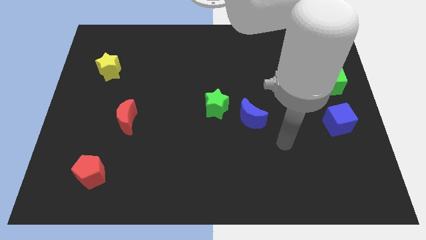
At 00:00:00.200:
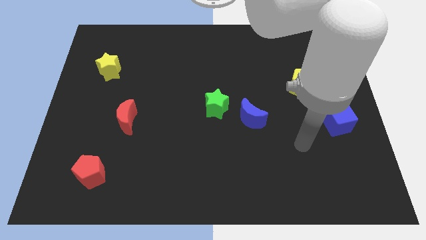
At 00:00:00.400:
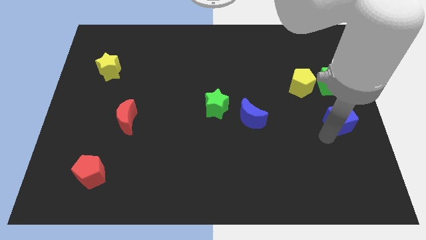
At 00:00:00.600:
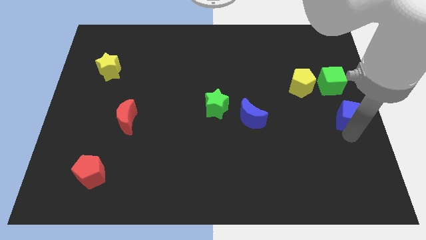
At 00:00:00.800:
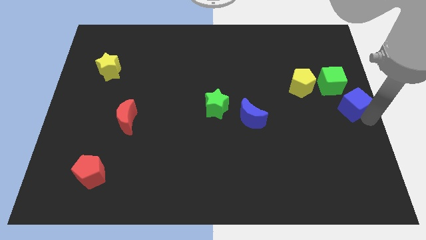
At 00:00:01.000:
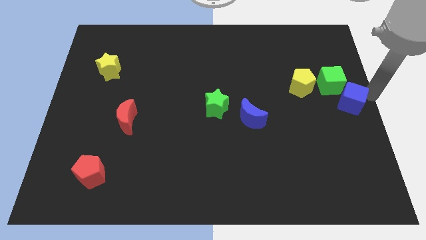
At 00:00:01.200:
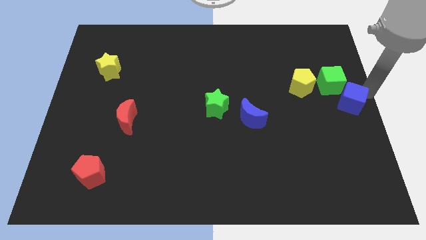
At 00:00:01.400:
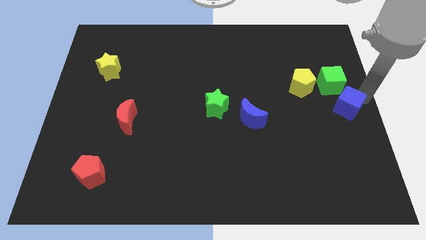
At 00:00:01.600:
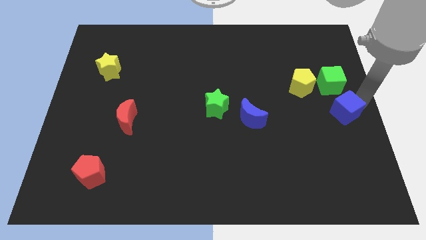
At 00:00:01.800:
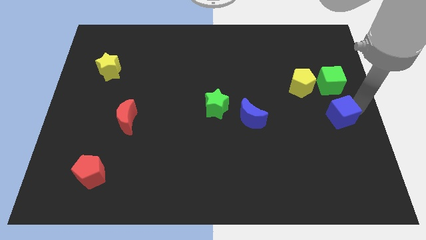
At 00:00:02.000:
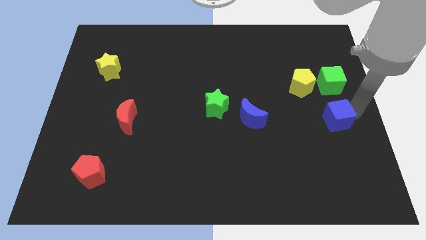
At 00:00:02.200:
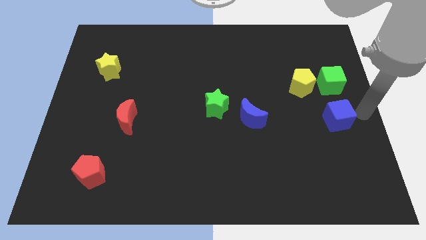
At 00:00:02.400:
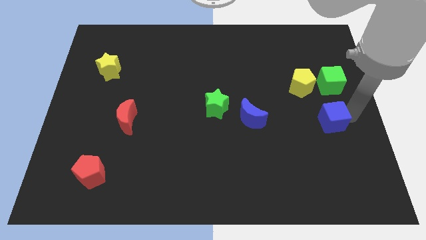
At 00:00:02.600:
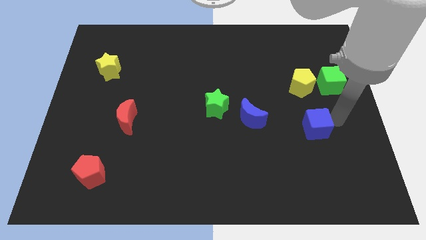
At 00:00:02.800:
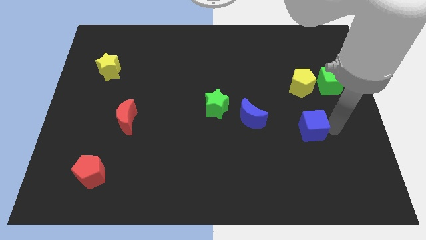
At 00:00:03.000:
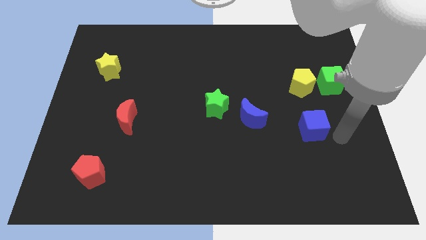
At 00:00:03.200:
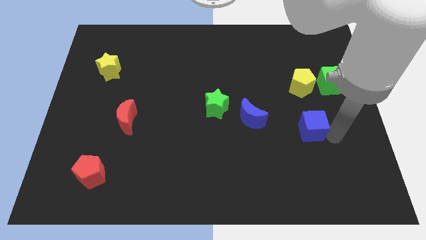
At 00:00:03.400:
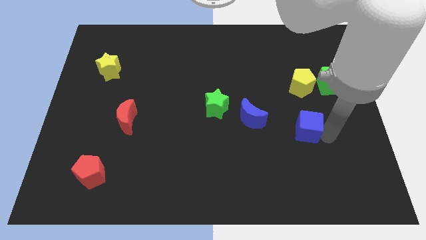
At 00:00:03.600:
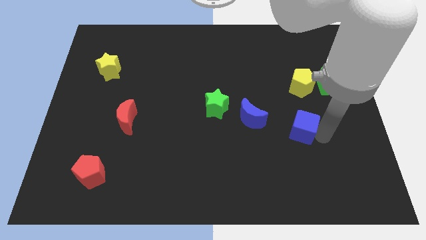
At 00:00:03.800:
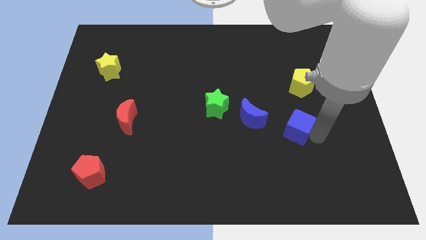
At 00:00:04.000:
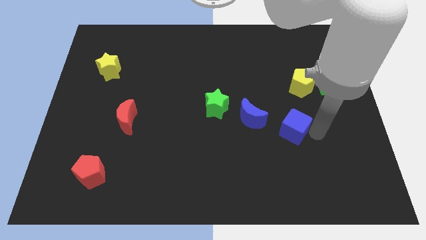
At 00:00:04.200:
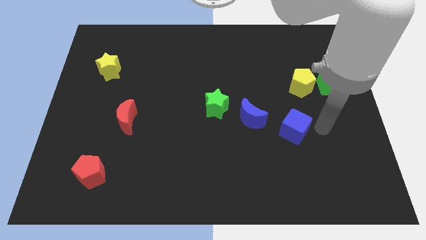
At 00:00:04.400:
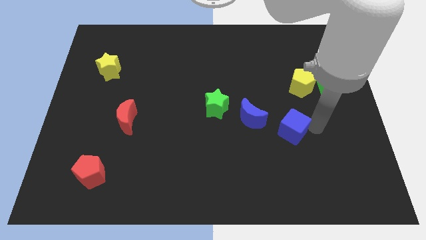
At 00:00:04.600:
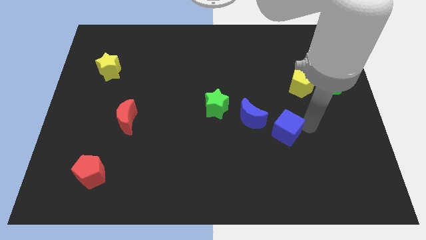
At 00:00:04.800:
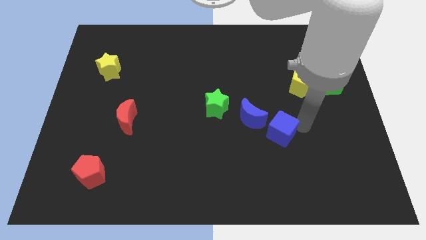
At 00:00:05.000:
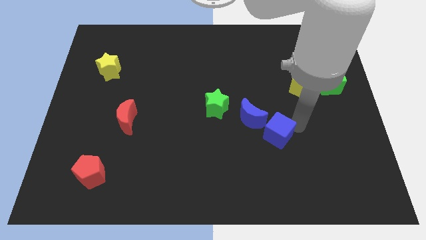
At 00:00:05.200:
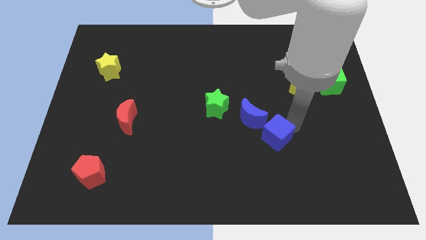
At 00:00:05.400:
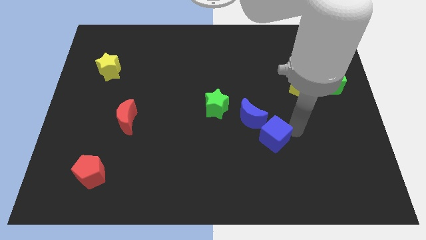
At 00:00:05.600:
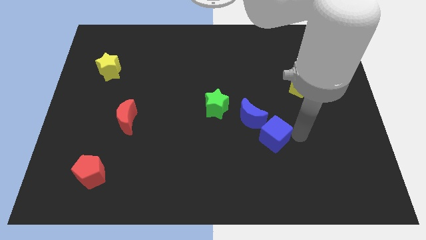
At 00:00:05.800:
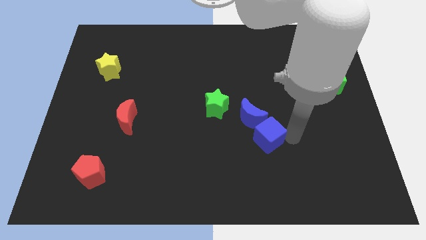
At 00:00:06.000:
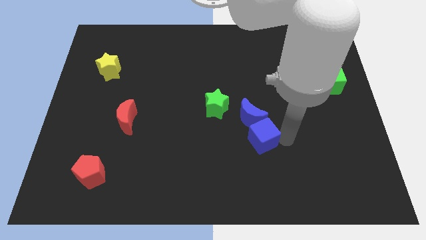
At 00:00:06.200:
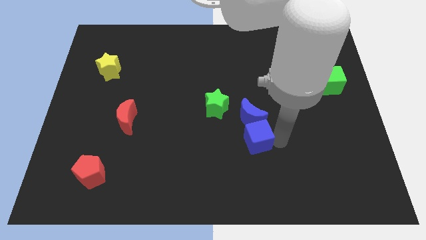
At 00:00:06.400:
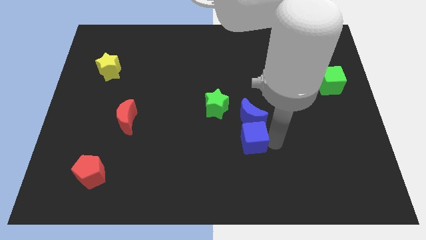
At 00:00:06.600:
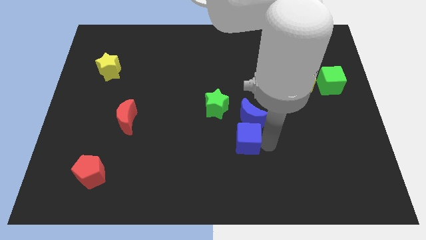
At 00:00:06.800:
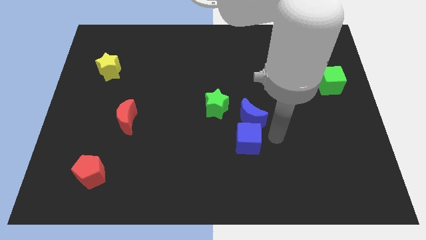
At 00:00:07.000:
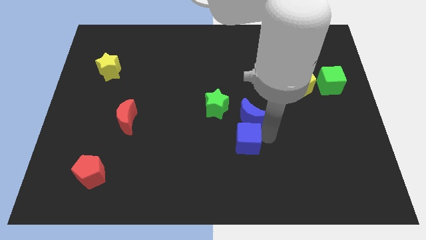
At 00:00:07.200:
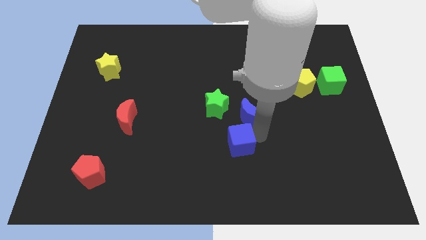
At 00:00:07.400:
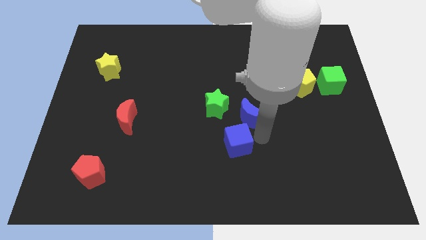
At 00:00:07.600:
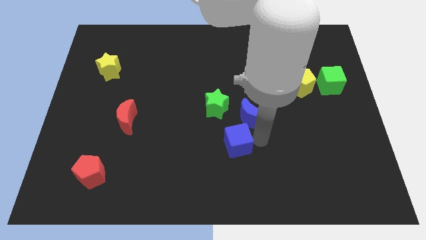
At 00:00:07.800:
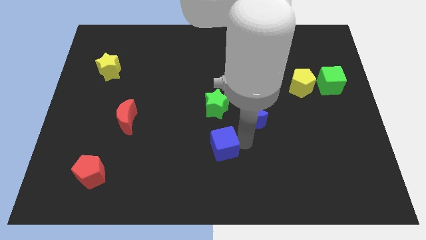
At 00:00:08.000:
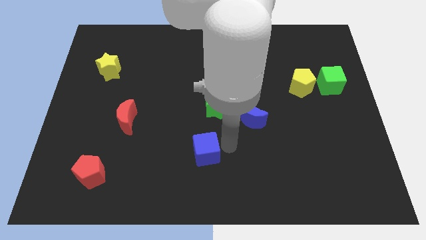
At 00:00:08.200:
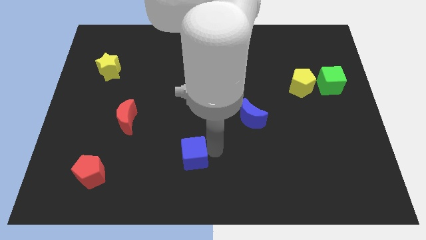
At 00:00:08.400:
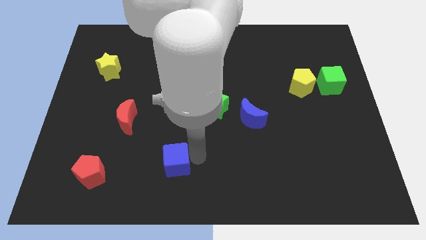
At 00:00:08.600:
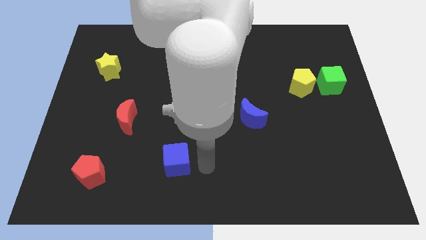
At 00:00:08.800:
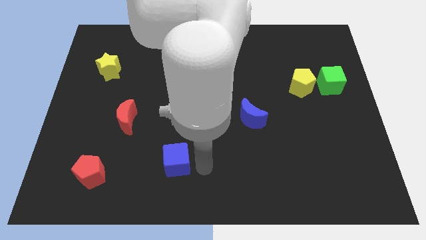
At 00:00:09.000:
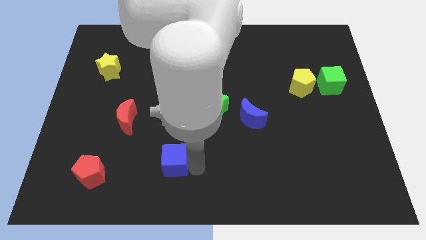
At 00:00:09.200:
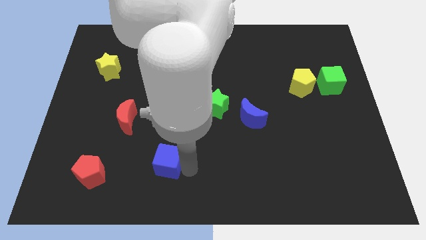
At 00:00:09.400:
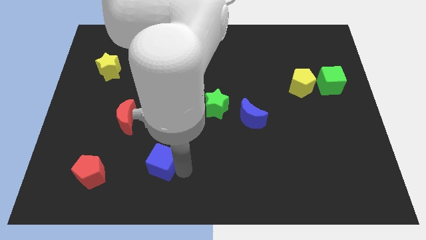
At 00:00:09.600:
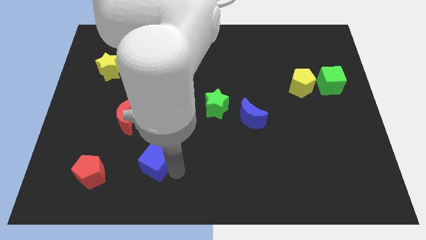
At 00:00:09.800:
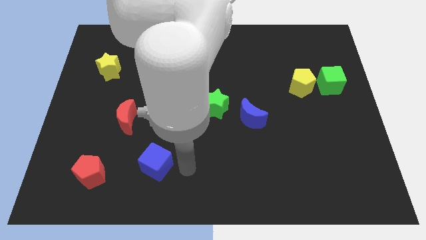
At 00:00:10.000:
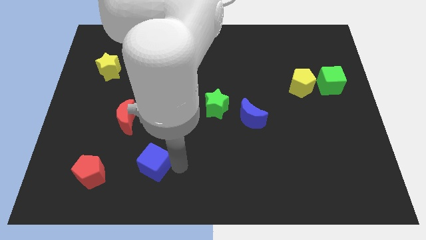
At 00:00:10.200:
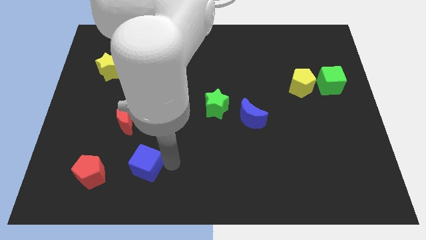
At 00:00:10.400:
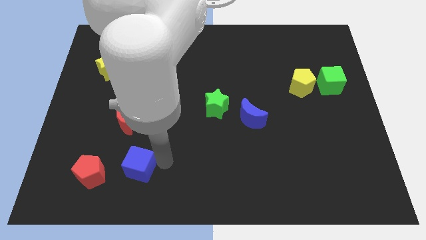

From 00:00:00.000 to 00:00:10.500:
put the blue cube to the bottom of the red moon

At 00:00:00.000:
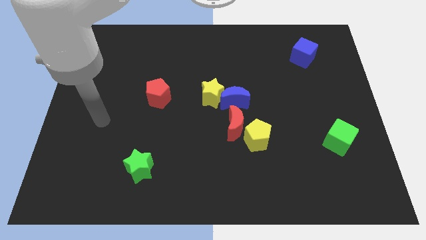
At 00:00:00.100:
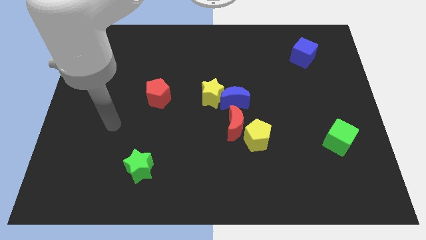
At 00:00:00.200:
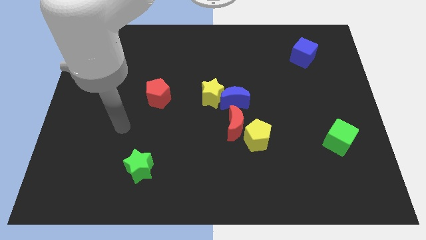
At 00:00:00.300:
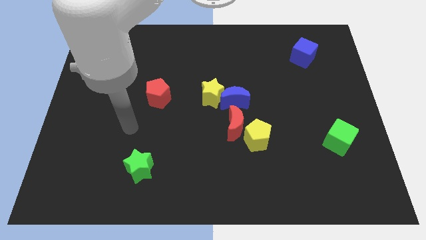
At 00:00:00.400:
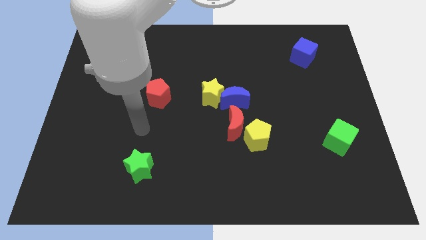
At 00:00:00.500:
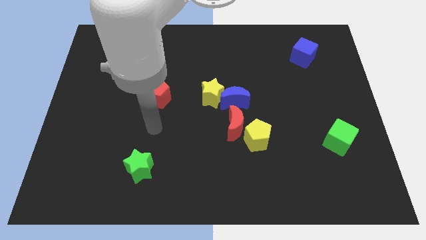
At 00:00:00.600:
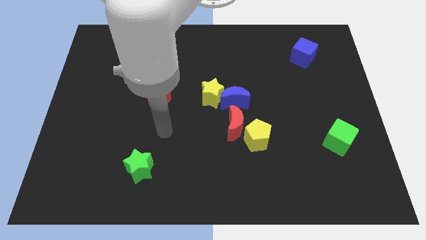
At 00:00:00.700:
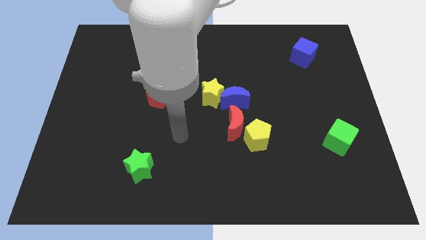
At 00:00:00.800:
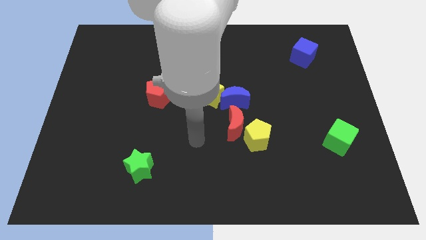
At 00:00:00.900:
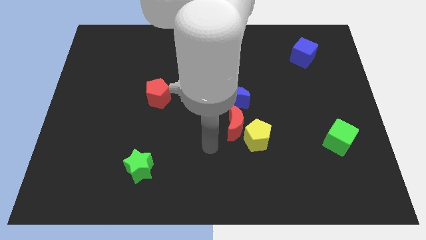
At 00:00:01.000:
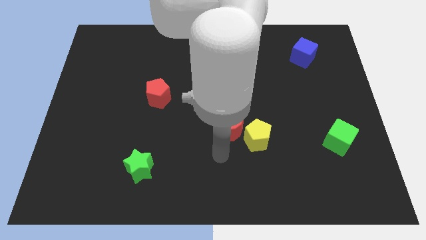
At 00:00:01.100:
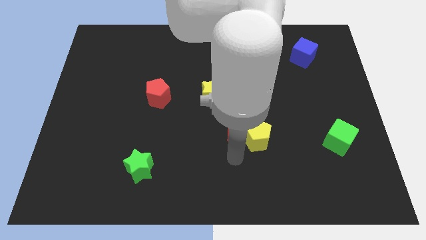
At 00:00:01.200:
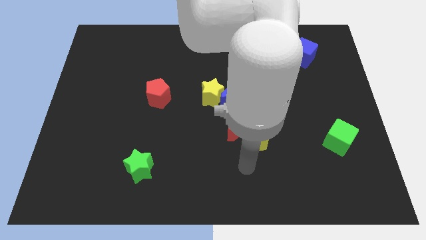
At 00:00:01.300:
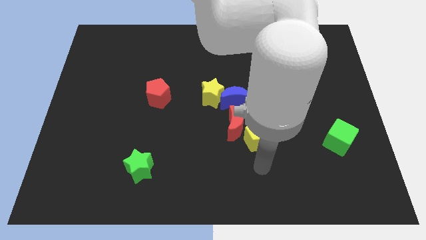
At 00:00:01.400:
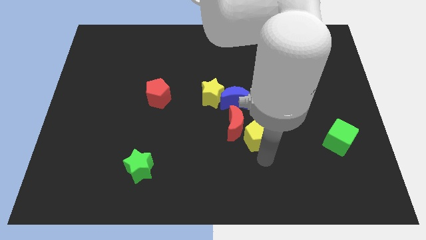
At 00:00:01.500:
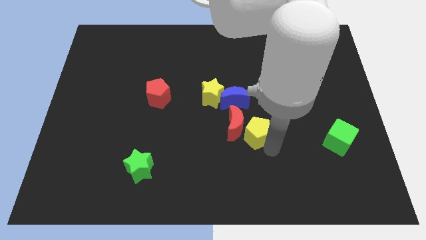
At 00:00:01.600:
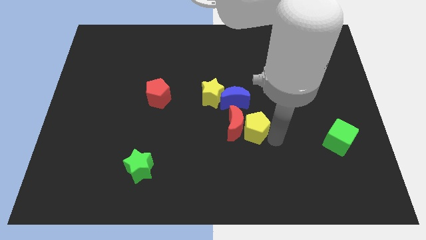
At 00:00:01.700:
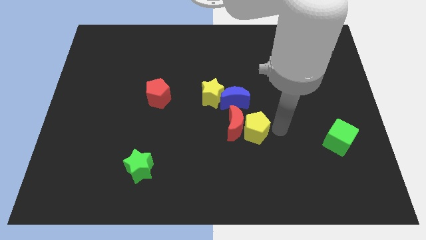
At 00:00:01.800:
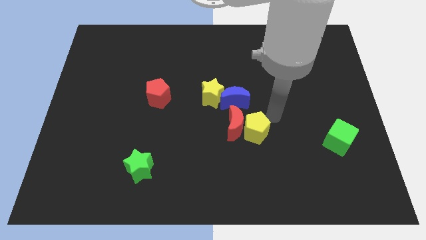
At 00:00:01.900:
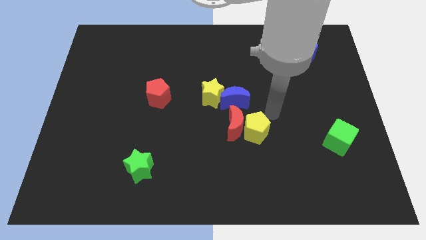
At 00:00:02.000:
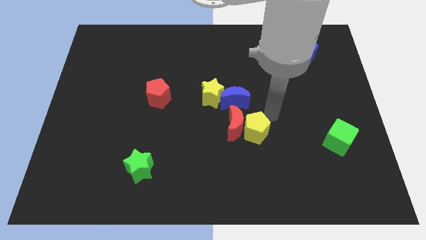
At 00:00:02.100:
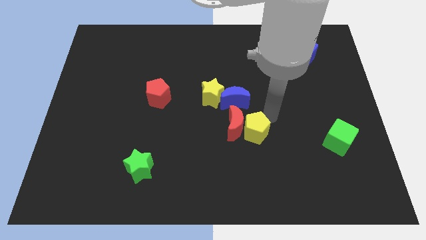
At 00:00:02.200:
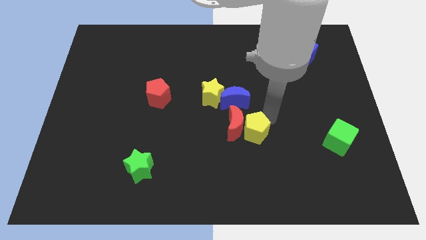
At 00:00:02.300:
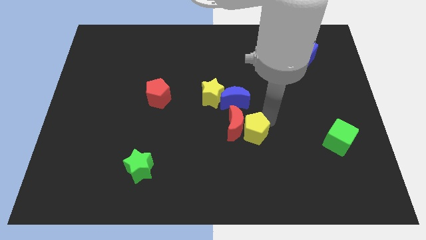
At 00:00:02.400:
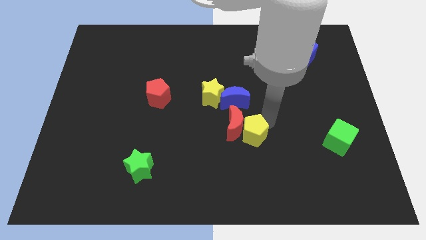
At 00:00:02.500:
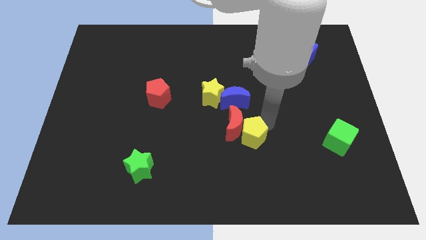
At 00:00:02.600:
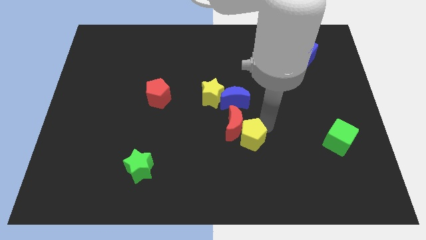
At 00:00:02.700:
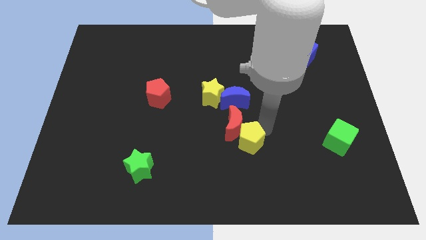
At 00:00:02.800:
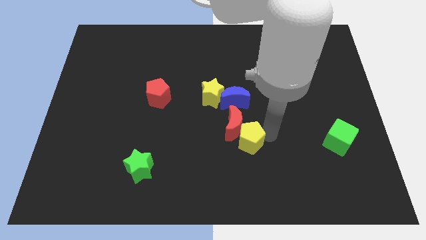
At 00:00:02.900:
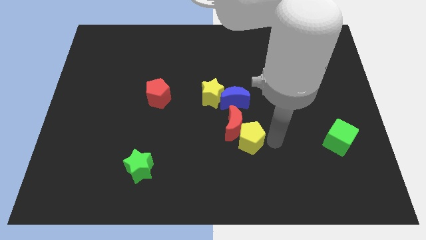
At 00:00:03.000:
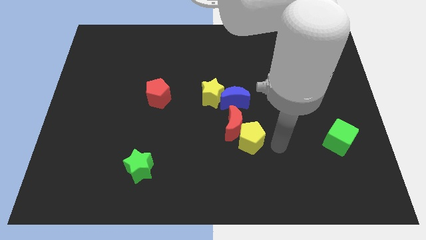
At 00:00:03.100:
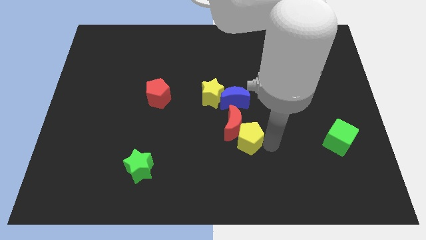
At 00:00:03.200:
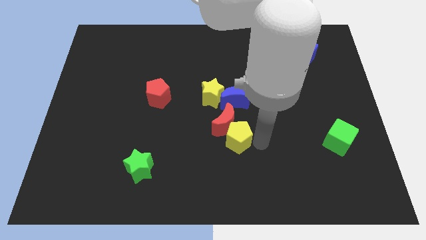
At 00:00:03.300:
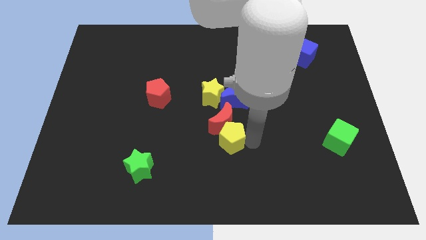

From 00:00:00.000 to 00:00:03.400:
push the yellow pentagon to the bottom of the yellow star
